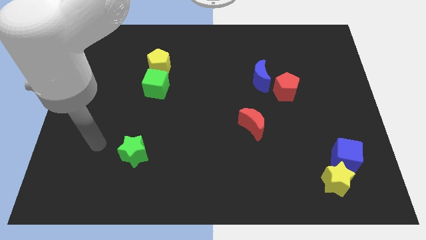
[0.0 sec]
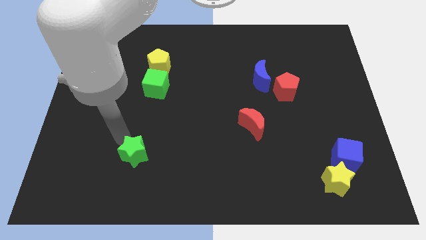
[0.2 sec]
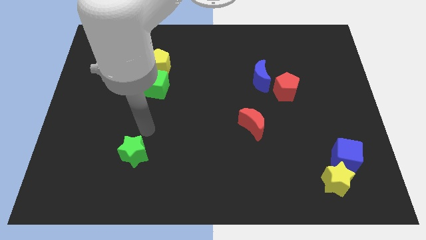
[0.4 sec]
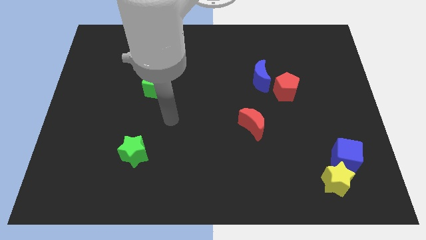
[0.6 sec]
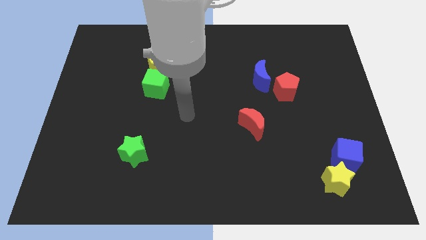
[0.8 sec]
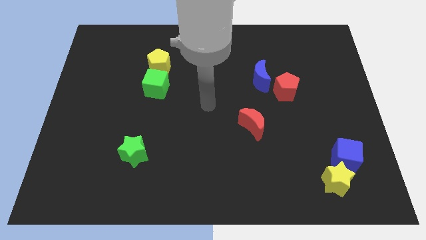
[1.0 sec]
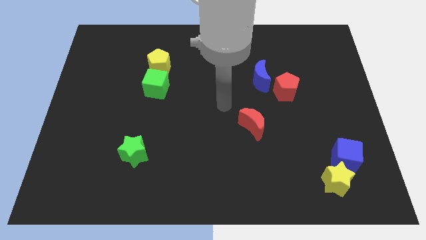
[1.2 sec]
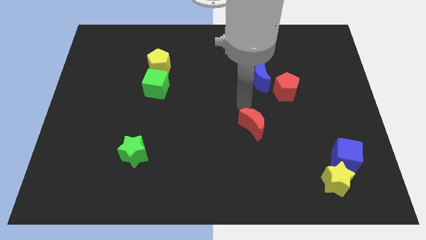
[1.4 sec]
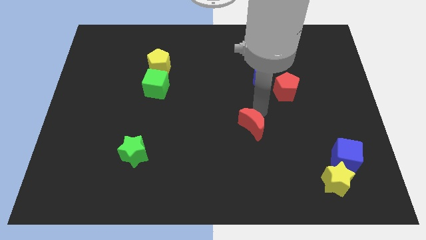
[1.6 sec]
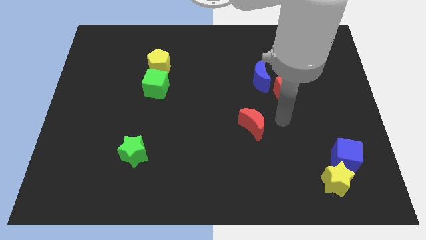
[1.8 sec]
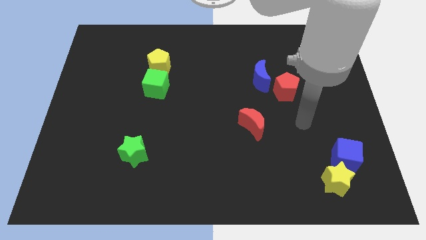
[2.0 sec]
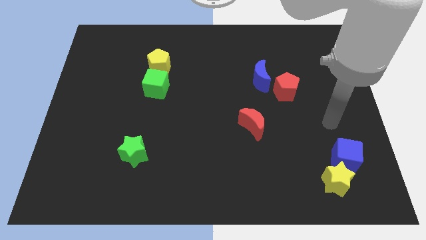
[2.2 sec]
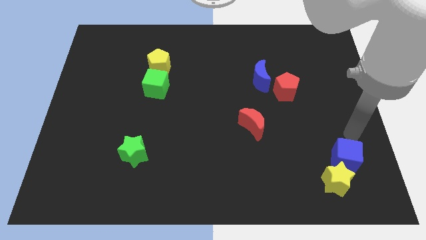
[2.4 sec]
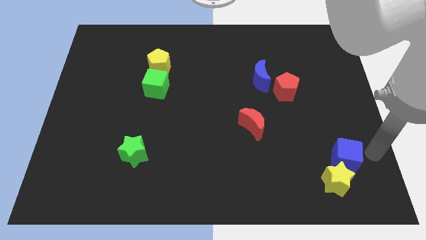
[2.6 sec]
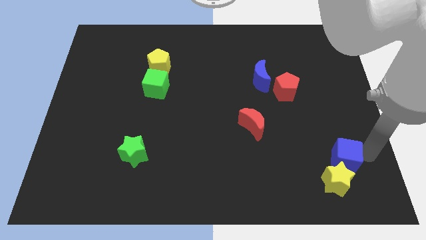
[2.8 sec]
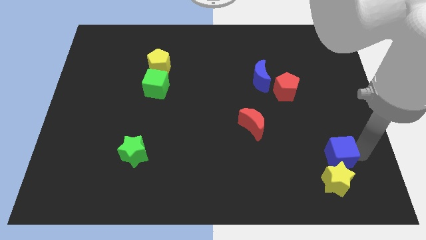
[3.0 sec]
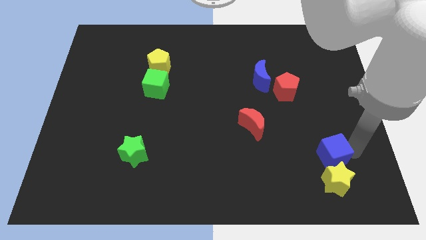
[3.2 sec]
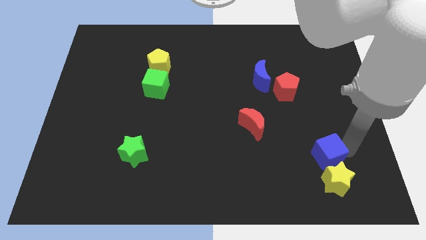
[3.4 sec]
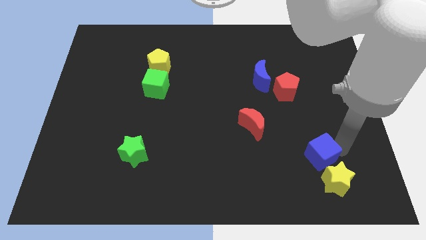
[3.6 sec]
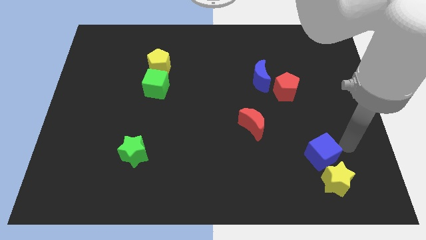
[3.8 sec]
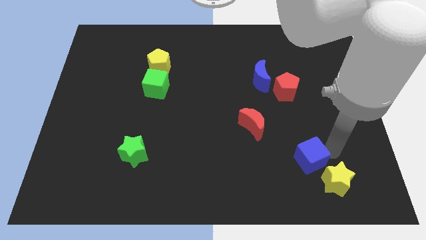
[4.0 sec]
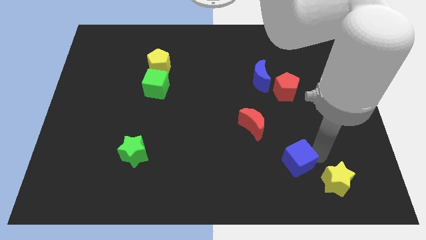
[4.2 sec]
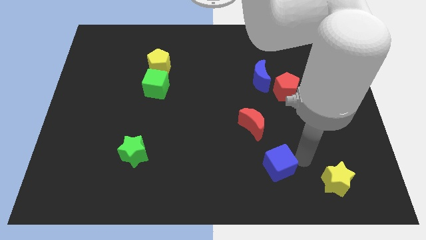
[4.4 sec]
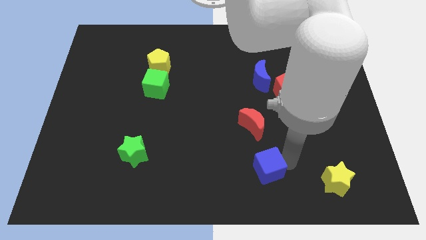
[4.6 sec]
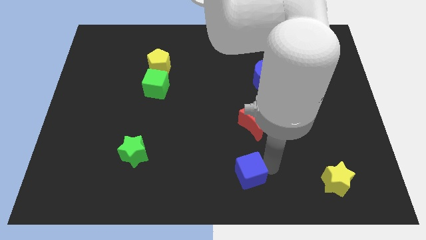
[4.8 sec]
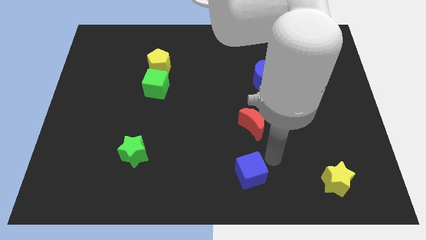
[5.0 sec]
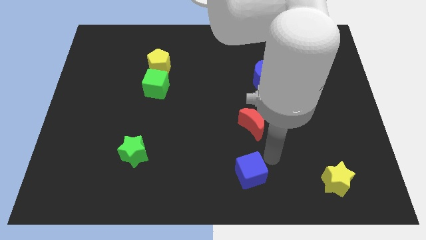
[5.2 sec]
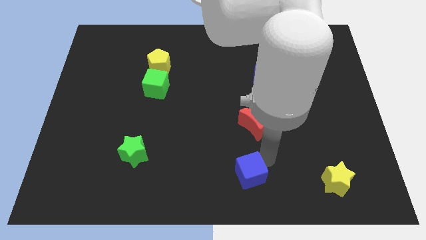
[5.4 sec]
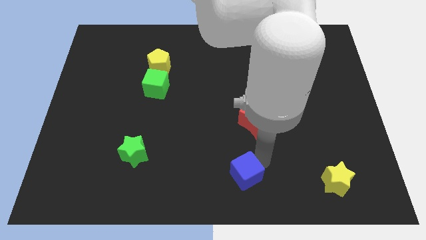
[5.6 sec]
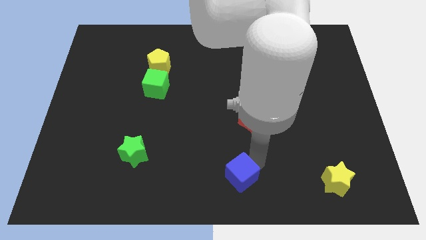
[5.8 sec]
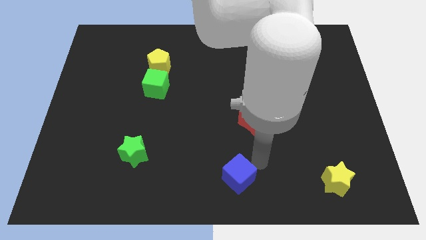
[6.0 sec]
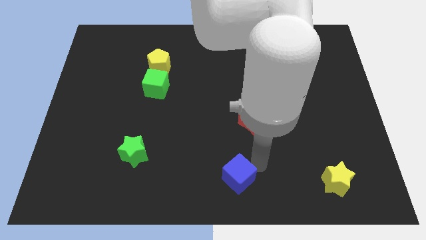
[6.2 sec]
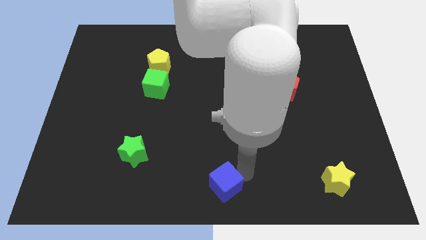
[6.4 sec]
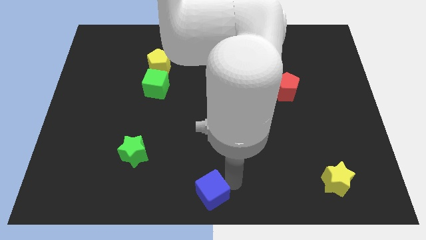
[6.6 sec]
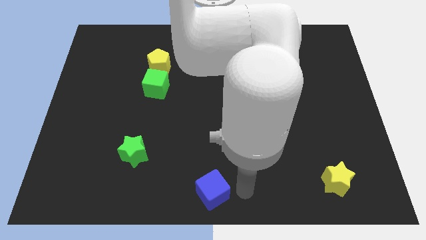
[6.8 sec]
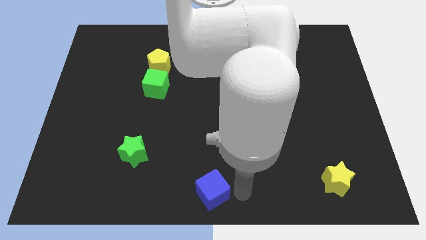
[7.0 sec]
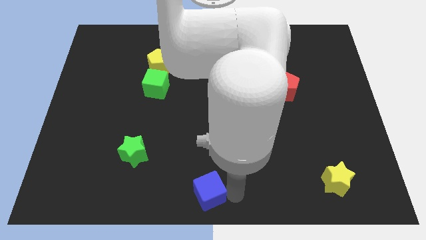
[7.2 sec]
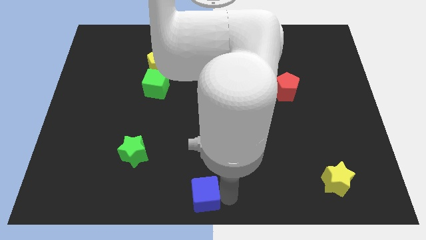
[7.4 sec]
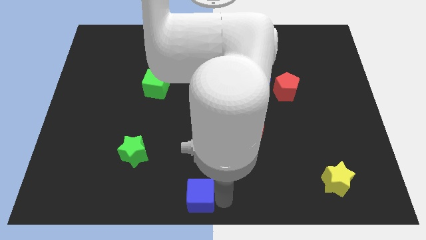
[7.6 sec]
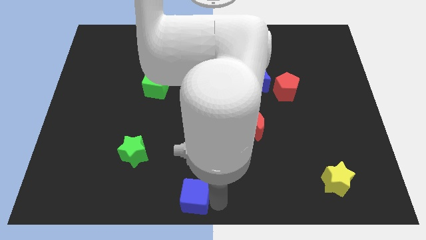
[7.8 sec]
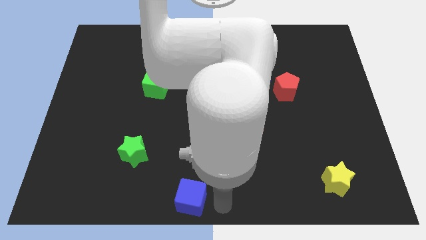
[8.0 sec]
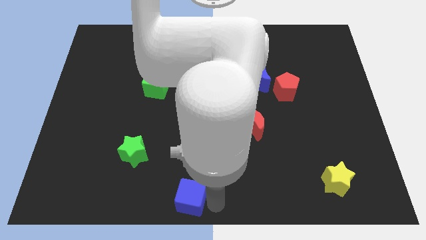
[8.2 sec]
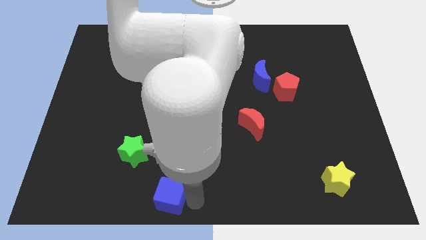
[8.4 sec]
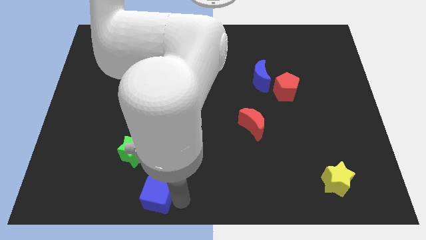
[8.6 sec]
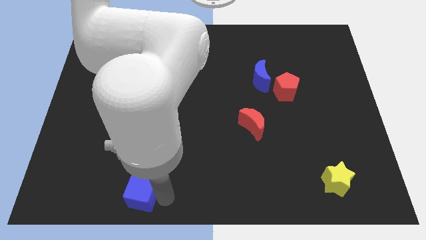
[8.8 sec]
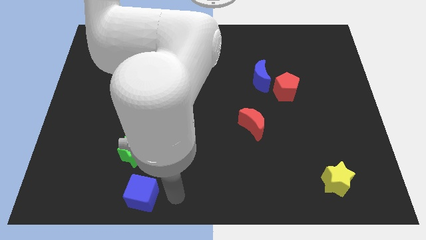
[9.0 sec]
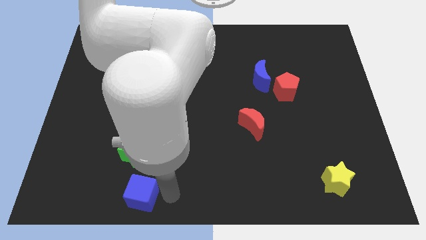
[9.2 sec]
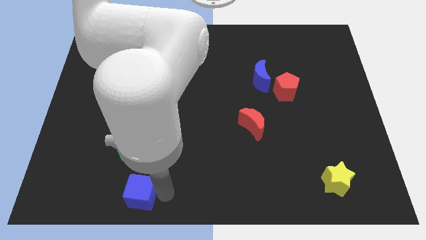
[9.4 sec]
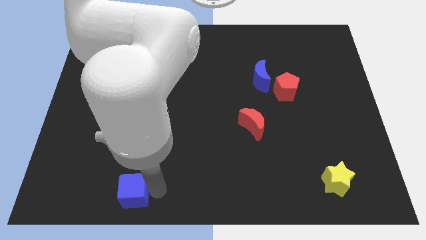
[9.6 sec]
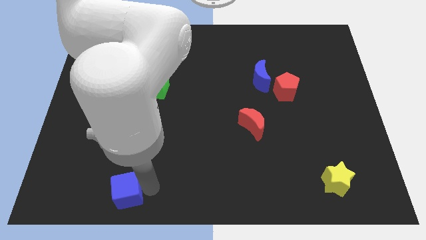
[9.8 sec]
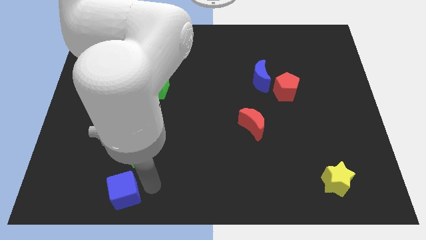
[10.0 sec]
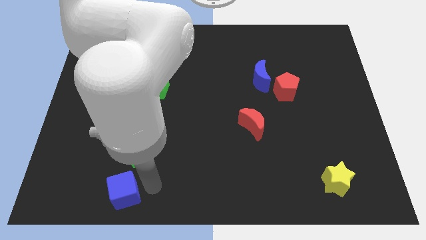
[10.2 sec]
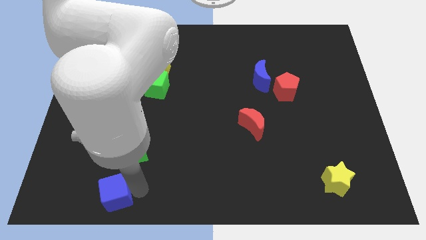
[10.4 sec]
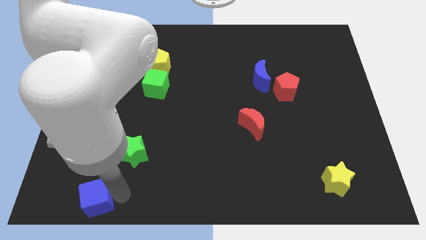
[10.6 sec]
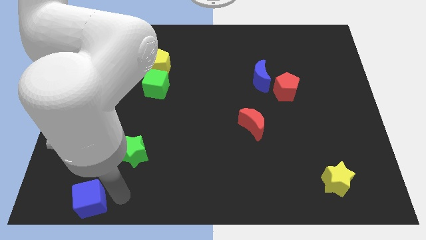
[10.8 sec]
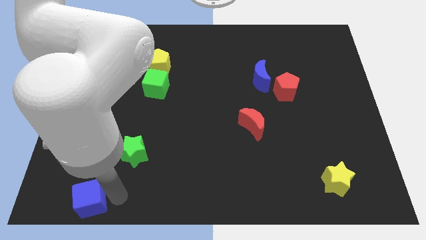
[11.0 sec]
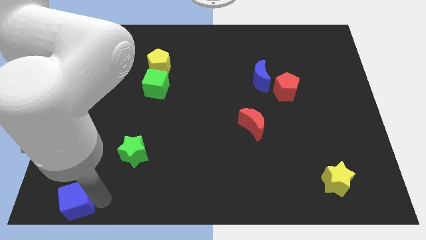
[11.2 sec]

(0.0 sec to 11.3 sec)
slide the blue cube to the lower left corner
